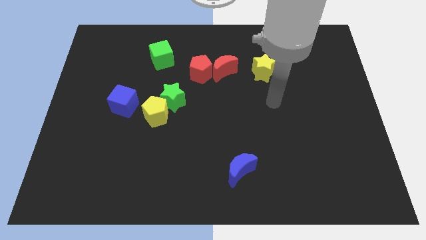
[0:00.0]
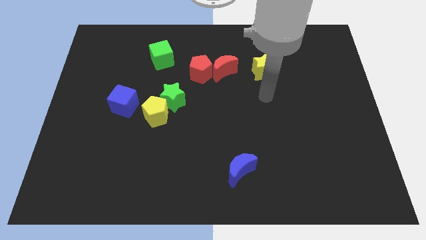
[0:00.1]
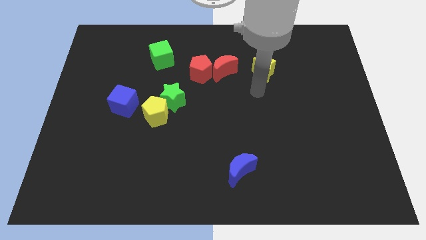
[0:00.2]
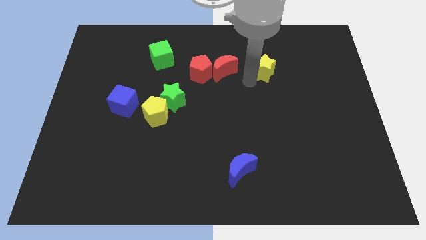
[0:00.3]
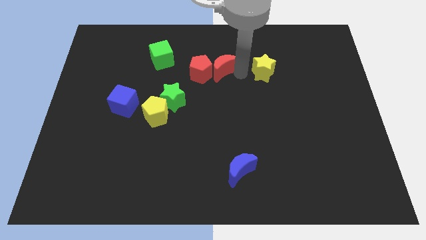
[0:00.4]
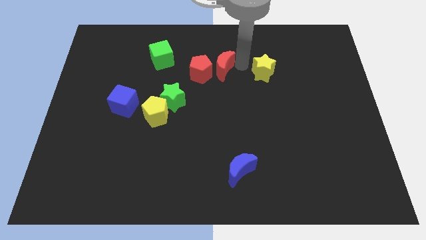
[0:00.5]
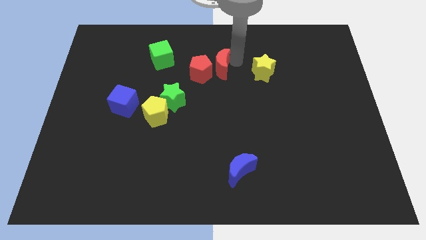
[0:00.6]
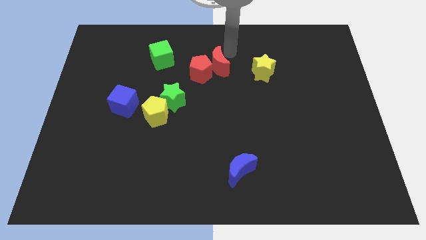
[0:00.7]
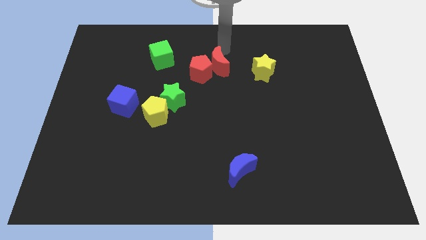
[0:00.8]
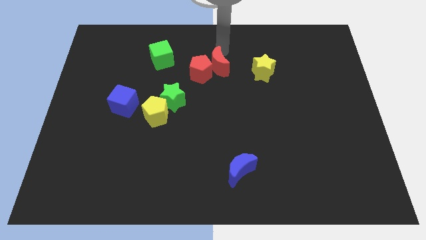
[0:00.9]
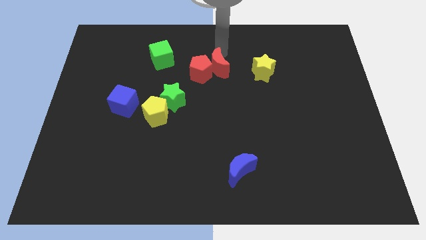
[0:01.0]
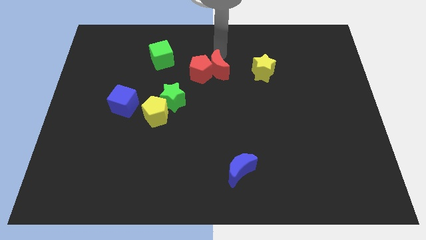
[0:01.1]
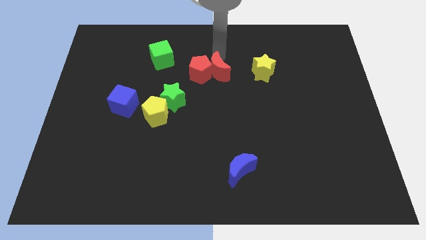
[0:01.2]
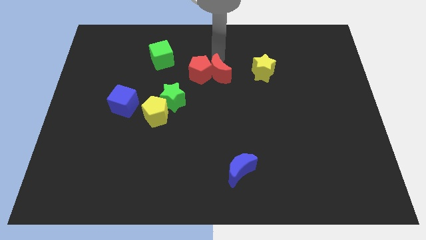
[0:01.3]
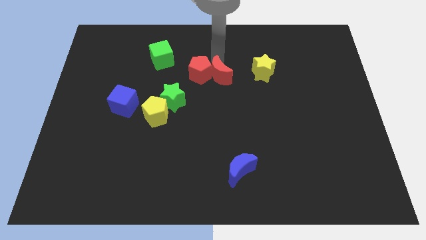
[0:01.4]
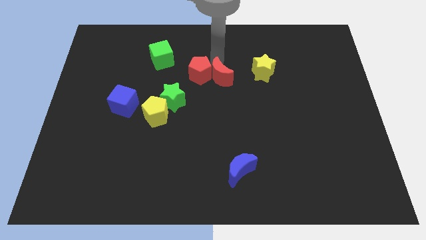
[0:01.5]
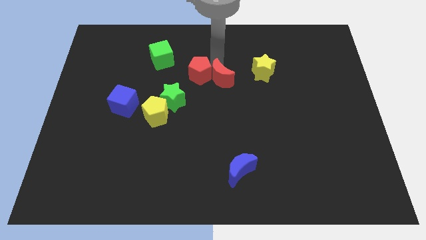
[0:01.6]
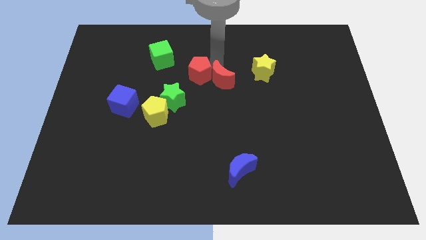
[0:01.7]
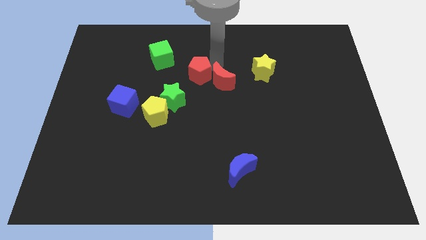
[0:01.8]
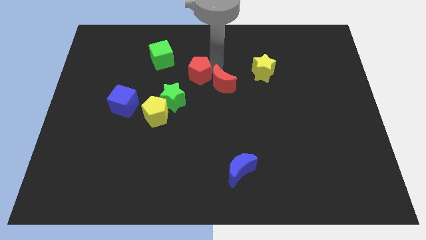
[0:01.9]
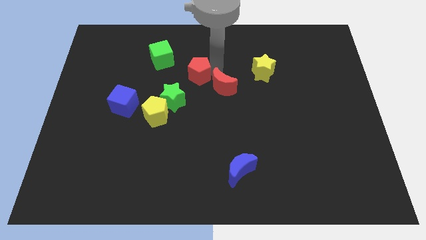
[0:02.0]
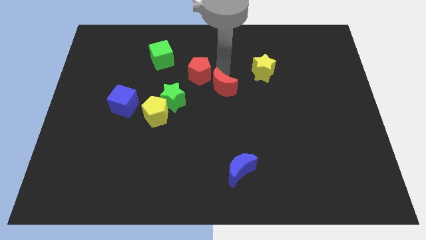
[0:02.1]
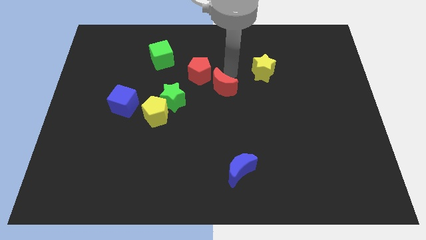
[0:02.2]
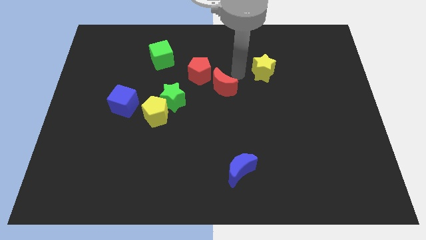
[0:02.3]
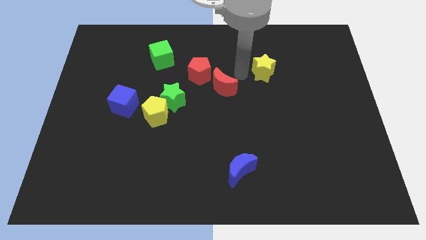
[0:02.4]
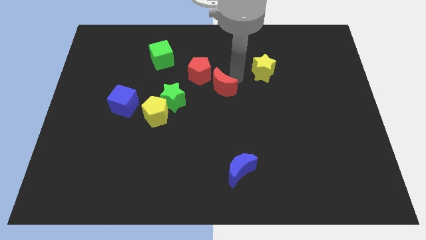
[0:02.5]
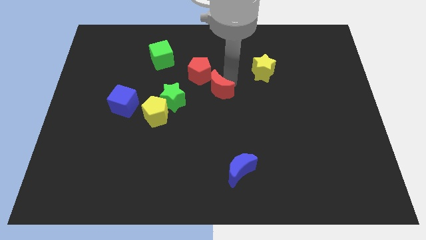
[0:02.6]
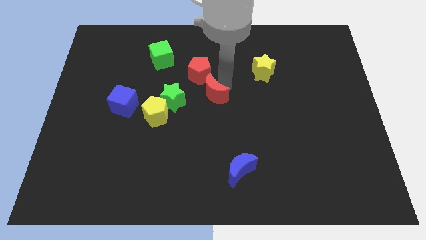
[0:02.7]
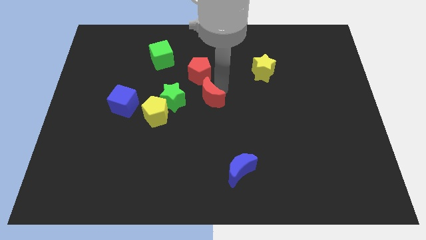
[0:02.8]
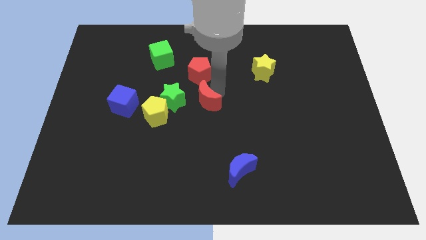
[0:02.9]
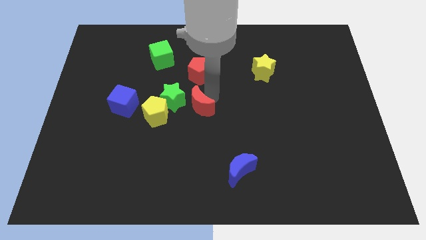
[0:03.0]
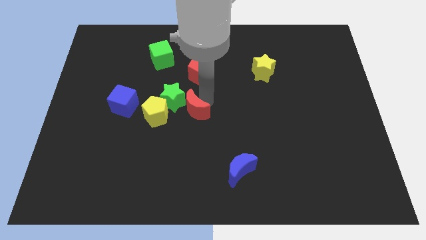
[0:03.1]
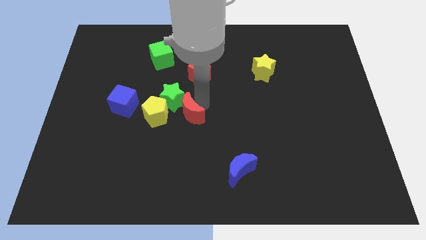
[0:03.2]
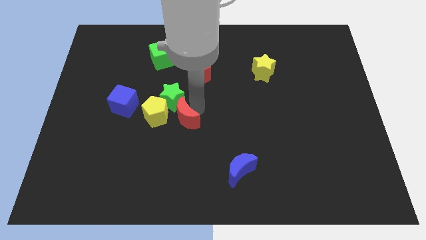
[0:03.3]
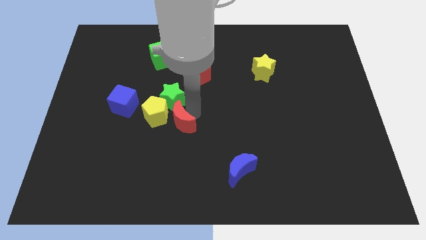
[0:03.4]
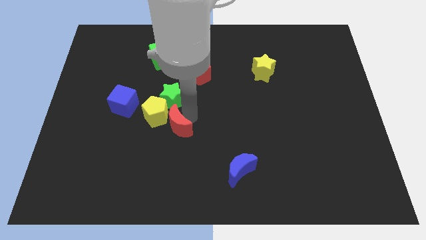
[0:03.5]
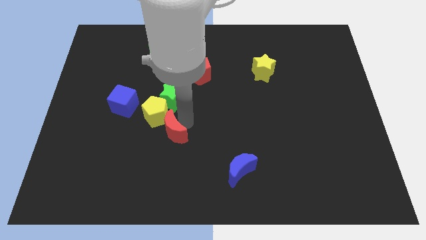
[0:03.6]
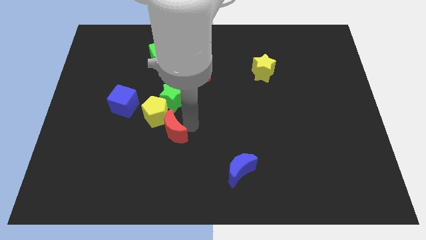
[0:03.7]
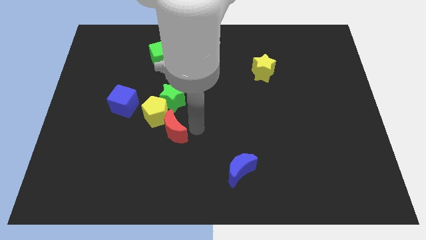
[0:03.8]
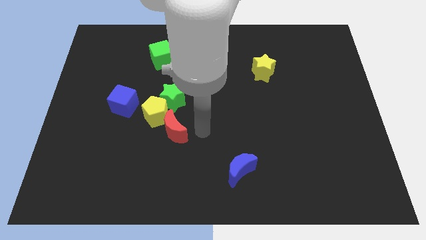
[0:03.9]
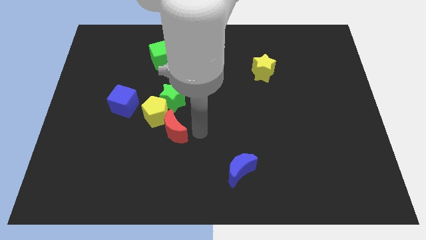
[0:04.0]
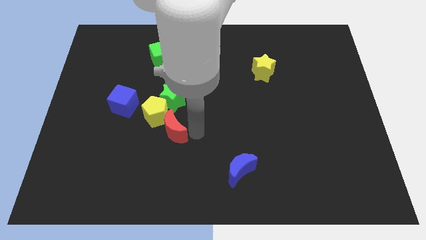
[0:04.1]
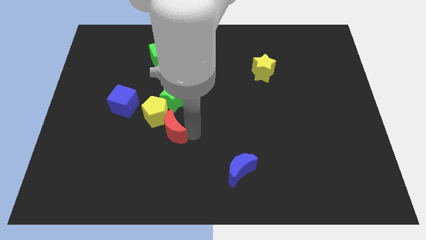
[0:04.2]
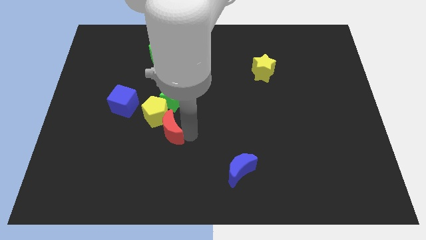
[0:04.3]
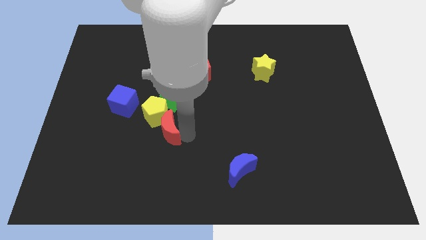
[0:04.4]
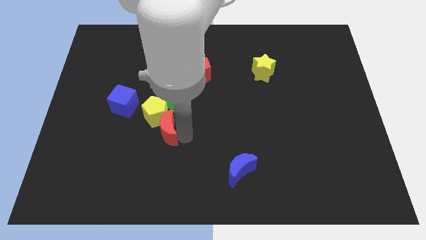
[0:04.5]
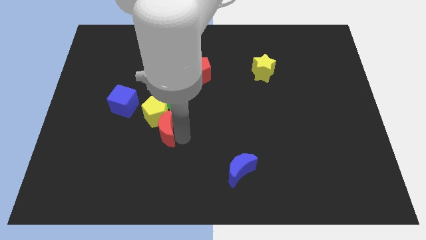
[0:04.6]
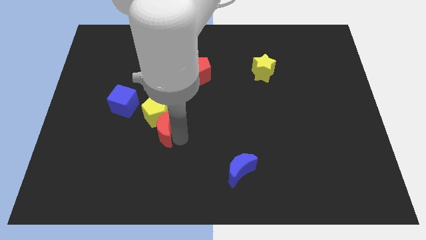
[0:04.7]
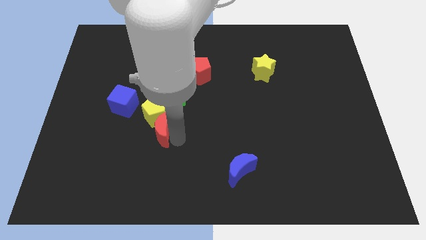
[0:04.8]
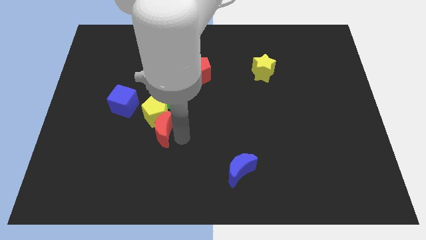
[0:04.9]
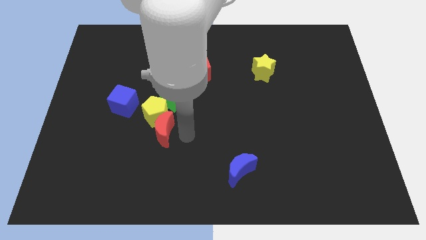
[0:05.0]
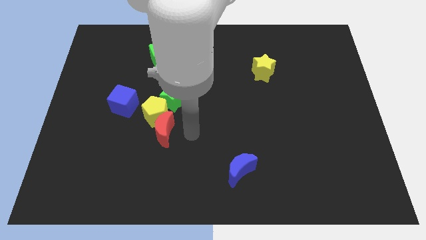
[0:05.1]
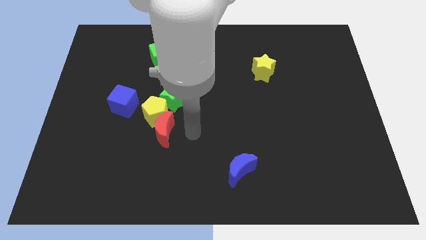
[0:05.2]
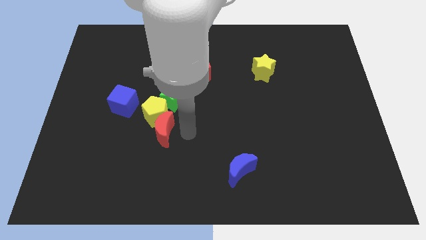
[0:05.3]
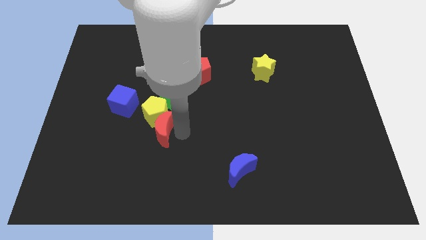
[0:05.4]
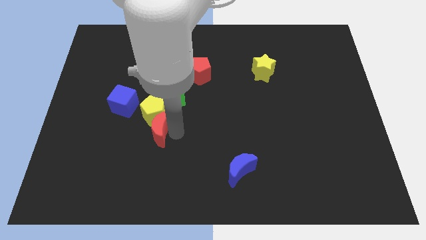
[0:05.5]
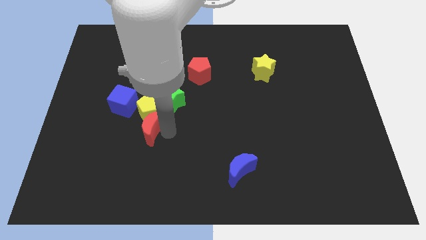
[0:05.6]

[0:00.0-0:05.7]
slide the red moon to the bottom left of the yellow pentagon

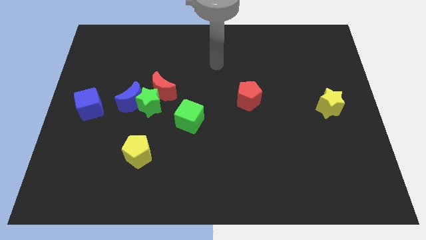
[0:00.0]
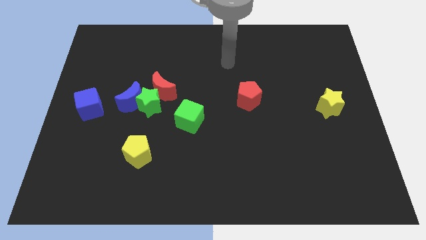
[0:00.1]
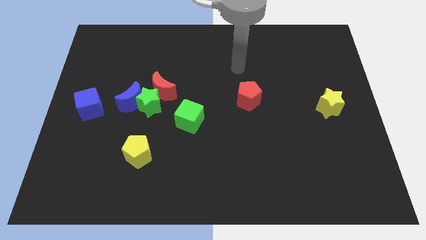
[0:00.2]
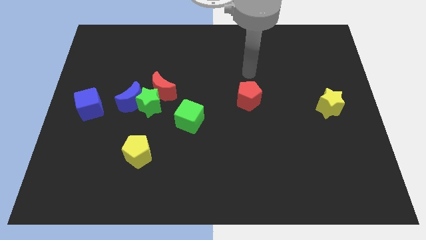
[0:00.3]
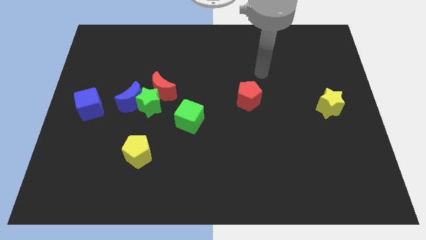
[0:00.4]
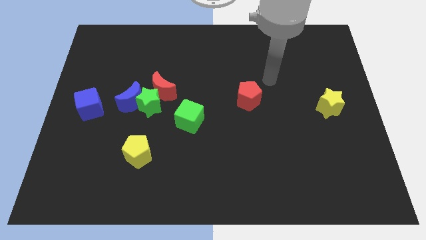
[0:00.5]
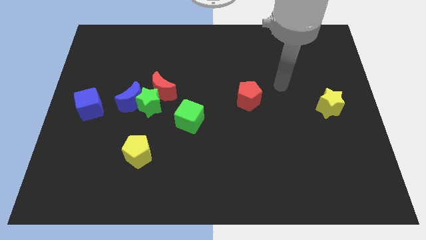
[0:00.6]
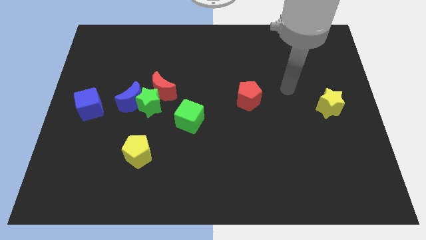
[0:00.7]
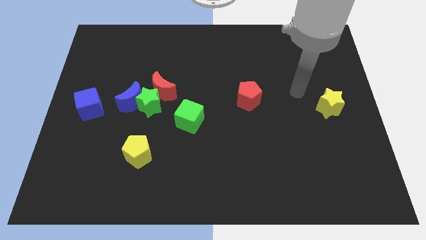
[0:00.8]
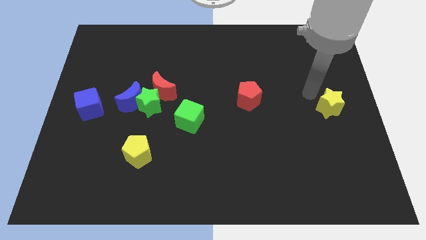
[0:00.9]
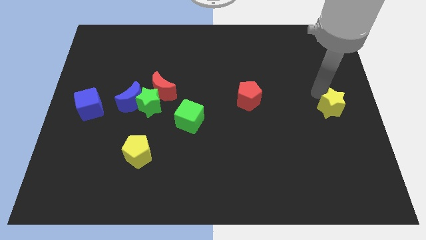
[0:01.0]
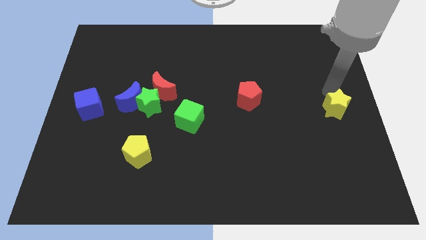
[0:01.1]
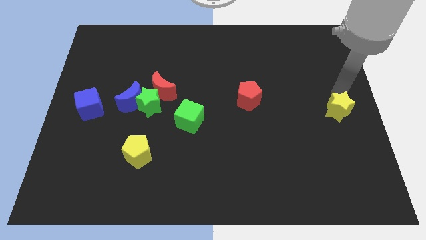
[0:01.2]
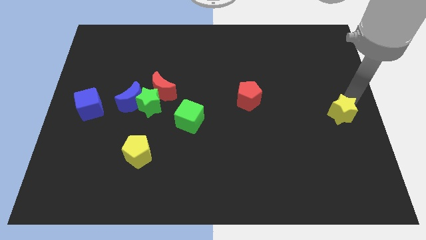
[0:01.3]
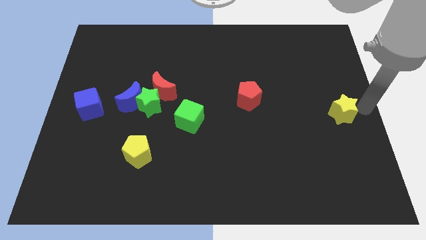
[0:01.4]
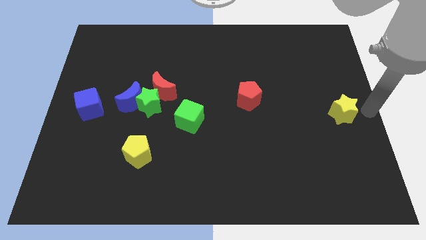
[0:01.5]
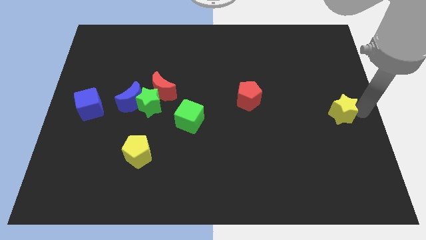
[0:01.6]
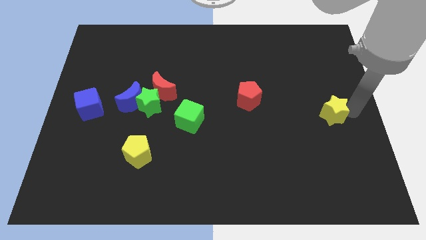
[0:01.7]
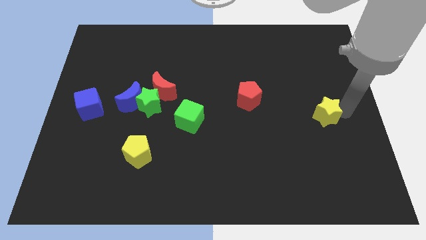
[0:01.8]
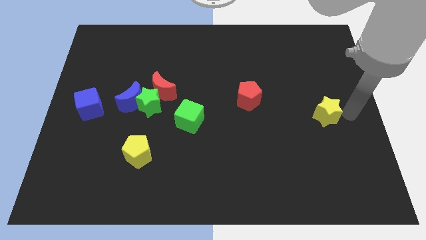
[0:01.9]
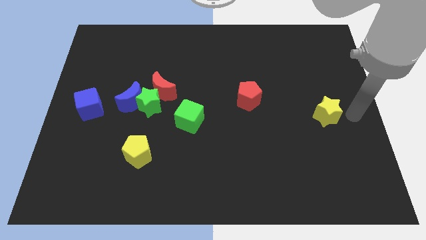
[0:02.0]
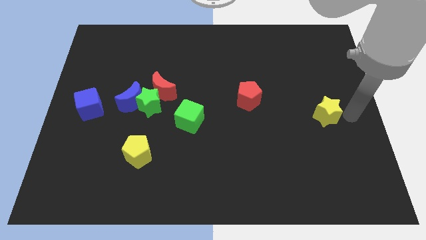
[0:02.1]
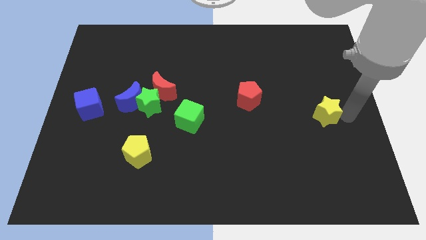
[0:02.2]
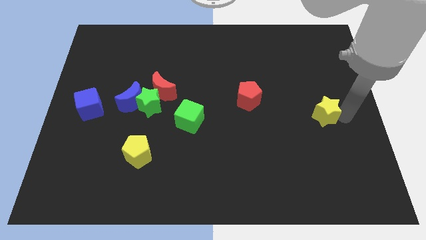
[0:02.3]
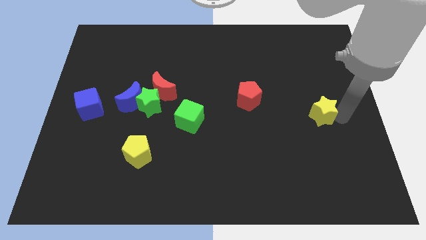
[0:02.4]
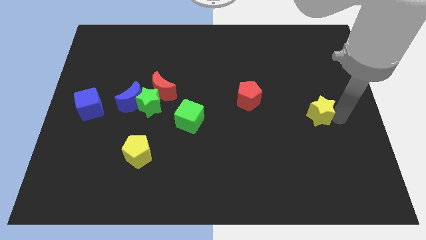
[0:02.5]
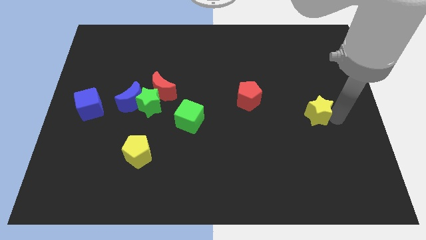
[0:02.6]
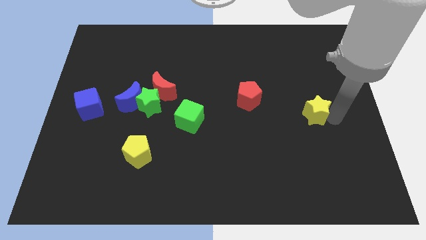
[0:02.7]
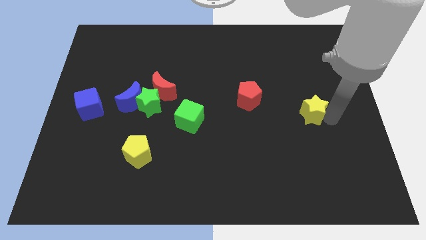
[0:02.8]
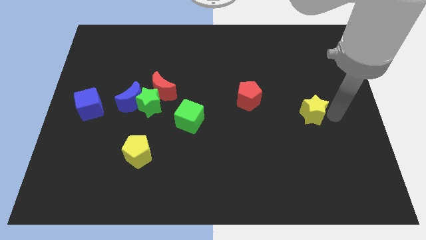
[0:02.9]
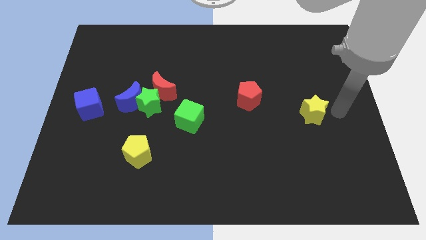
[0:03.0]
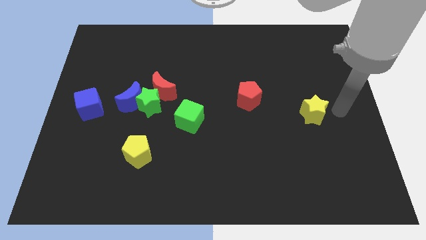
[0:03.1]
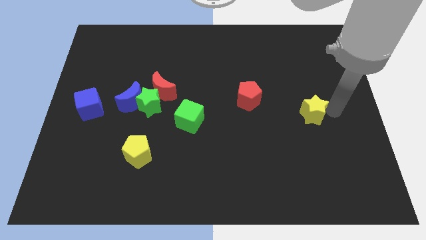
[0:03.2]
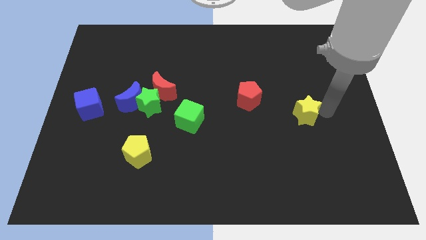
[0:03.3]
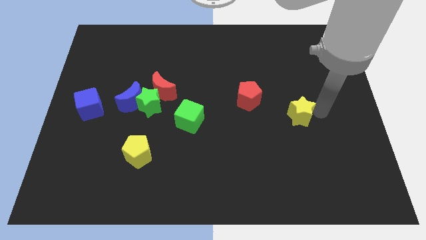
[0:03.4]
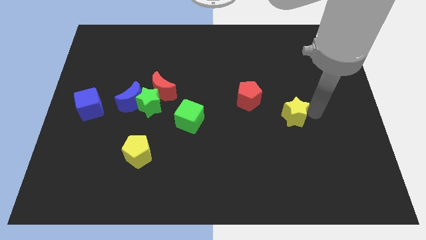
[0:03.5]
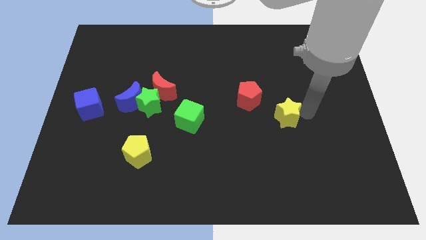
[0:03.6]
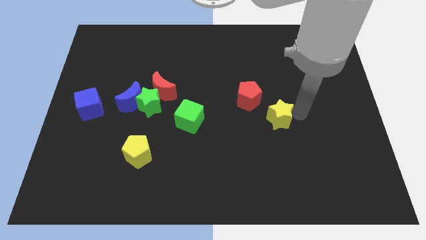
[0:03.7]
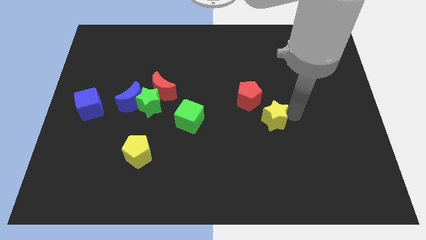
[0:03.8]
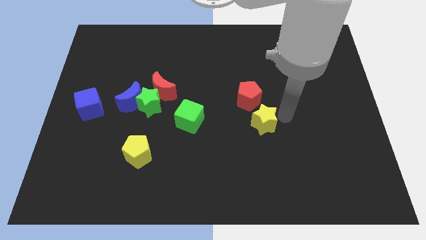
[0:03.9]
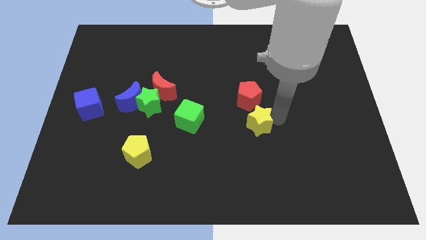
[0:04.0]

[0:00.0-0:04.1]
push the yellow star just right of the green cube
